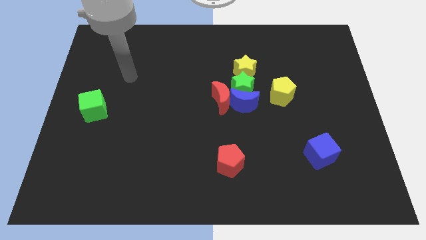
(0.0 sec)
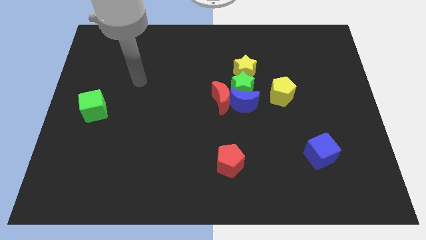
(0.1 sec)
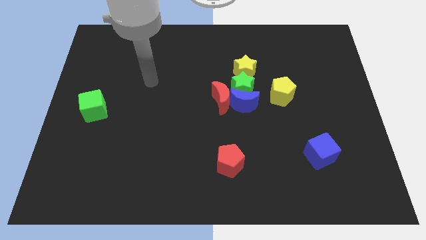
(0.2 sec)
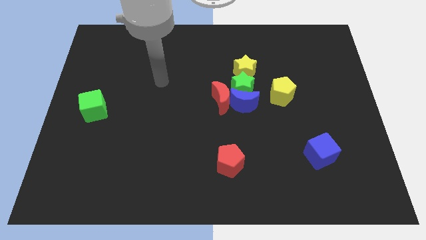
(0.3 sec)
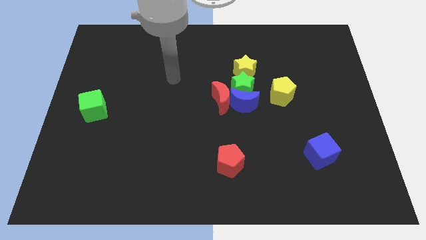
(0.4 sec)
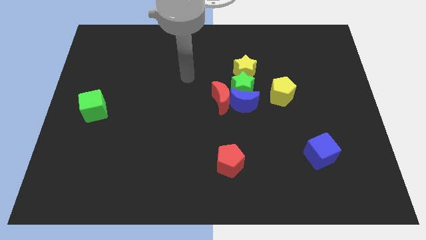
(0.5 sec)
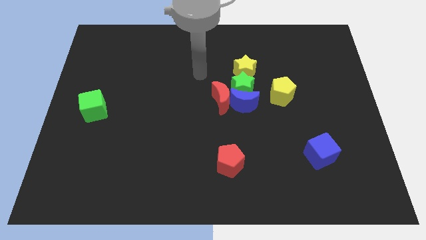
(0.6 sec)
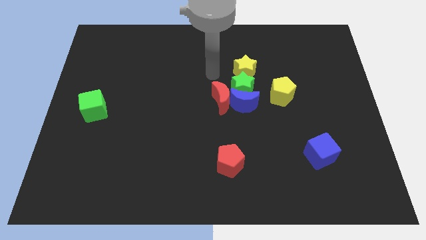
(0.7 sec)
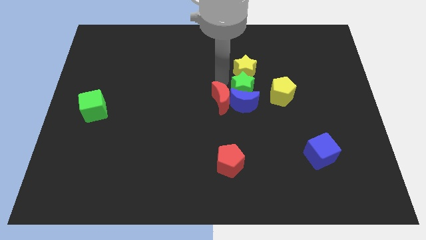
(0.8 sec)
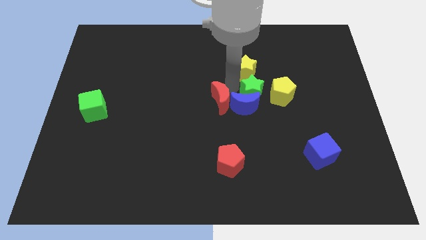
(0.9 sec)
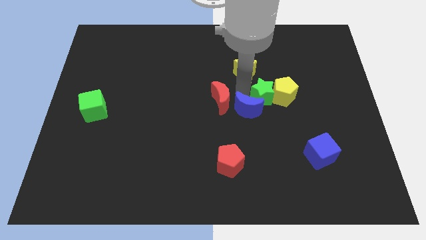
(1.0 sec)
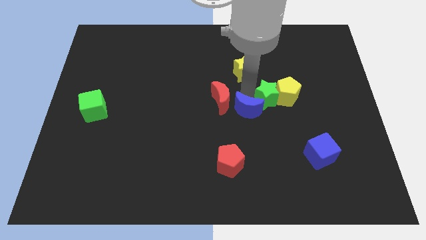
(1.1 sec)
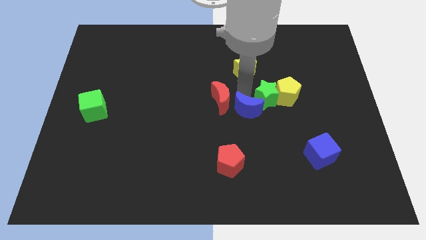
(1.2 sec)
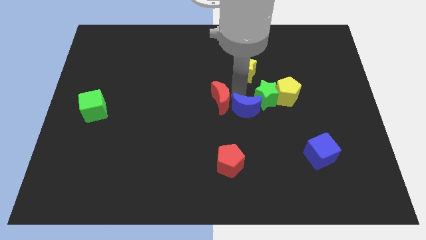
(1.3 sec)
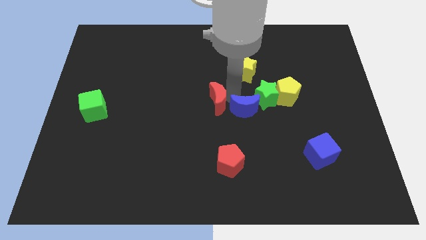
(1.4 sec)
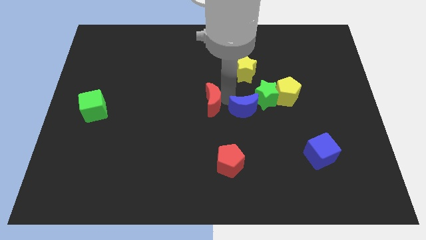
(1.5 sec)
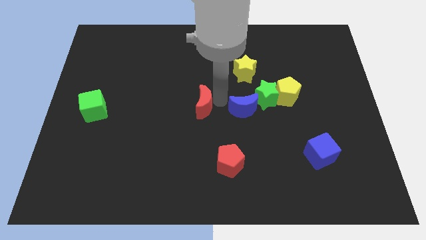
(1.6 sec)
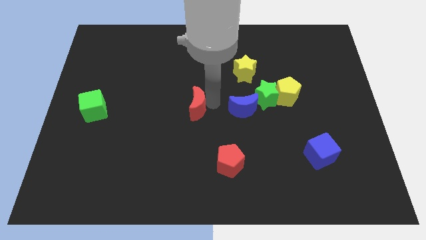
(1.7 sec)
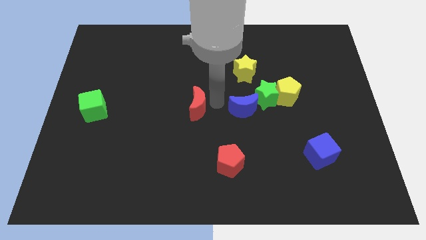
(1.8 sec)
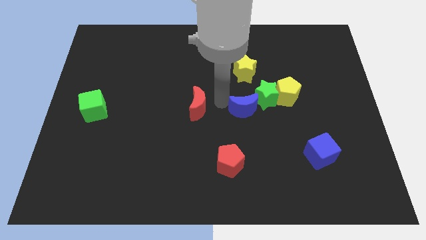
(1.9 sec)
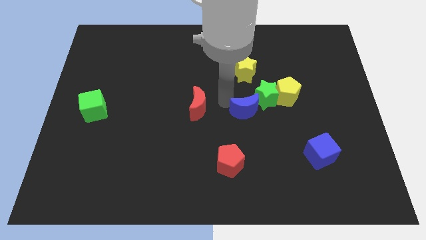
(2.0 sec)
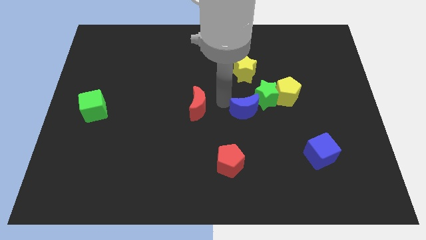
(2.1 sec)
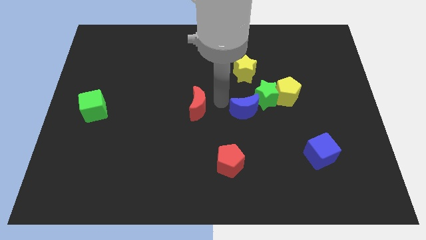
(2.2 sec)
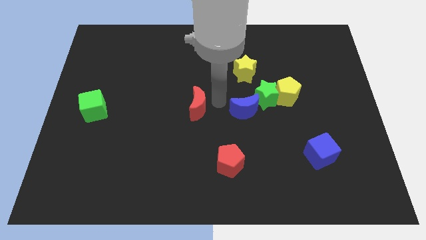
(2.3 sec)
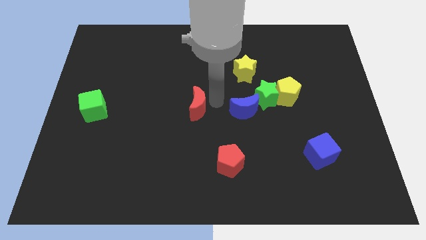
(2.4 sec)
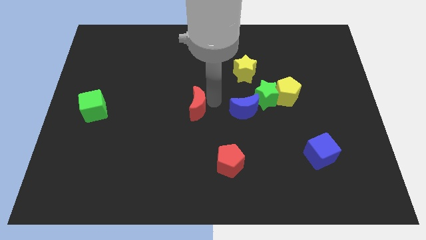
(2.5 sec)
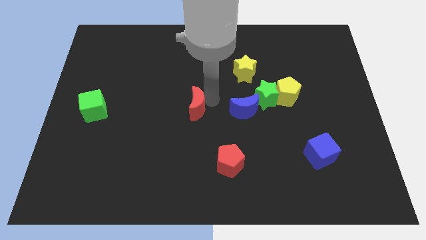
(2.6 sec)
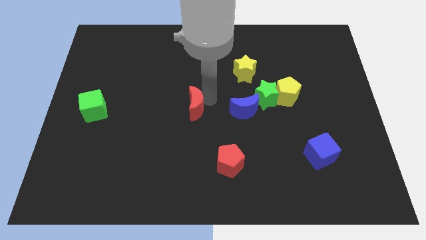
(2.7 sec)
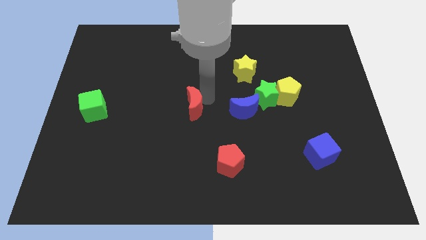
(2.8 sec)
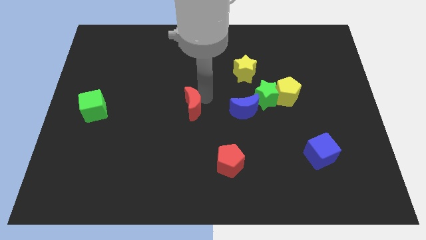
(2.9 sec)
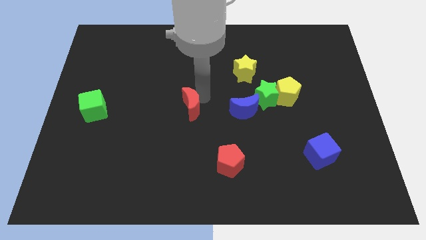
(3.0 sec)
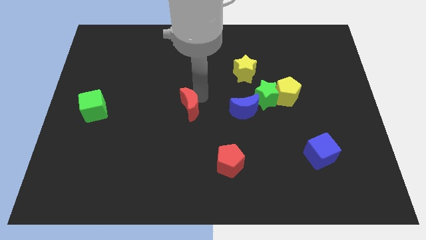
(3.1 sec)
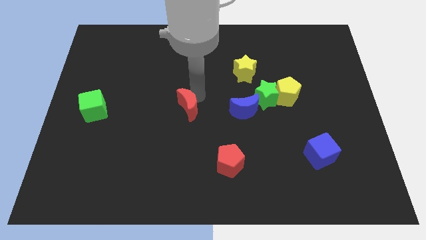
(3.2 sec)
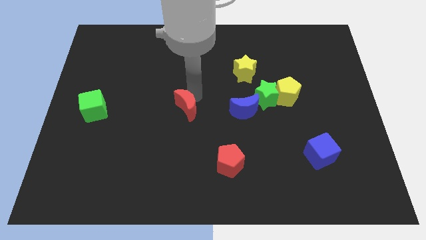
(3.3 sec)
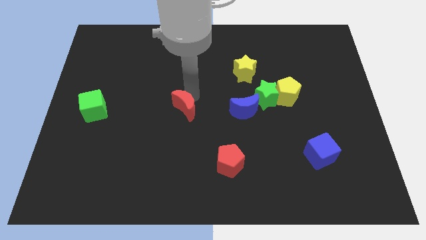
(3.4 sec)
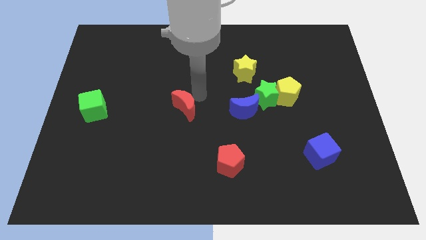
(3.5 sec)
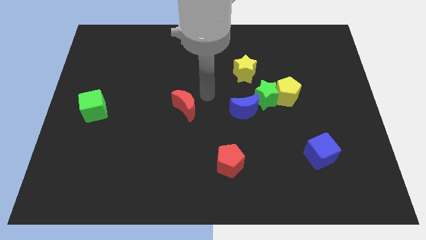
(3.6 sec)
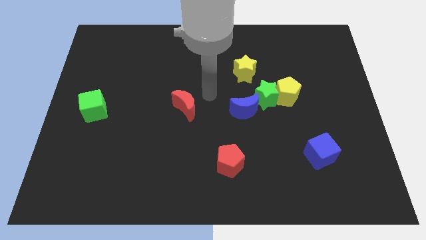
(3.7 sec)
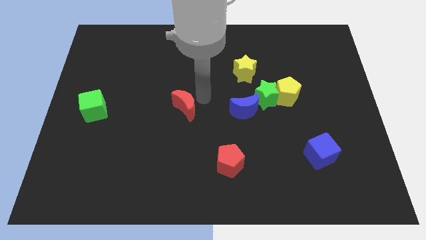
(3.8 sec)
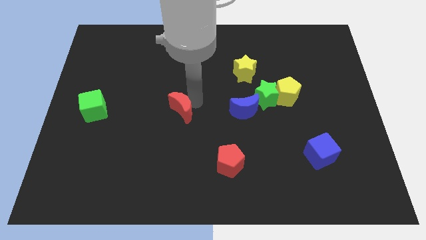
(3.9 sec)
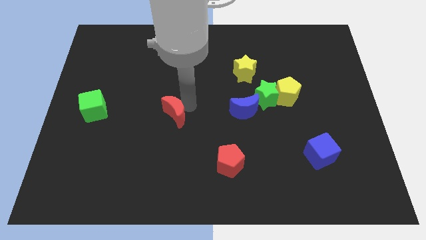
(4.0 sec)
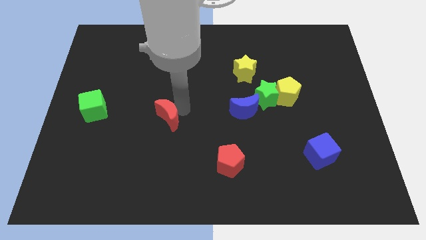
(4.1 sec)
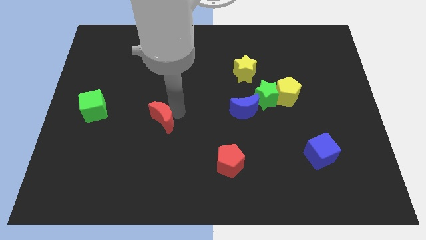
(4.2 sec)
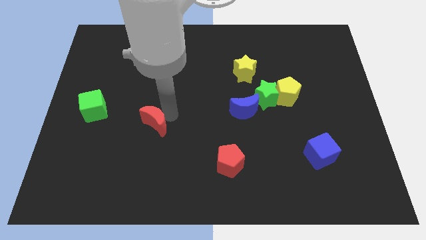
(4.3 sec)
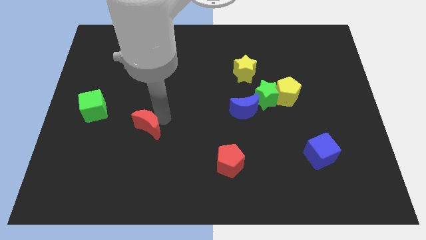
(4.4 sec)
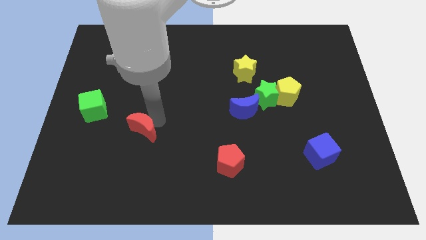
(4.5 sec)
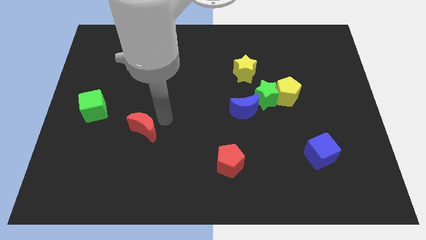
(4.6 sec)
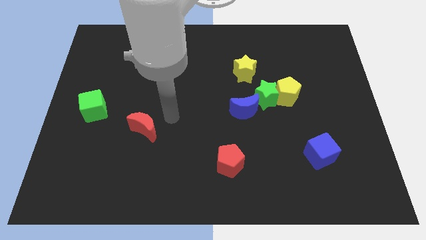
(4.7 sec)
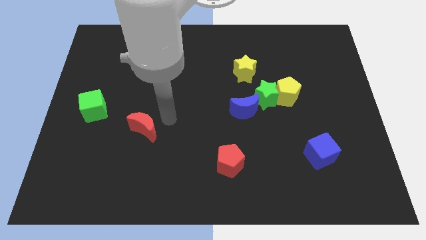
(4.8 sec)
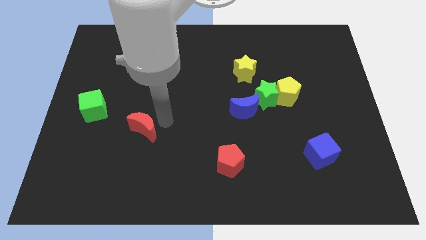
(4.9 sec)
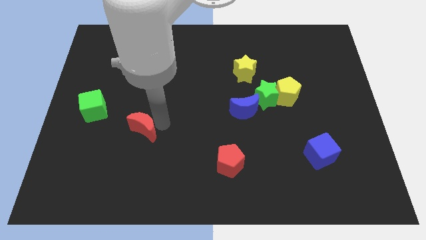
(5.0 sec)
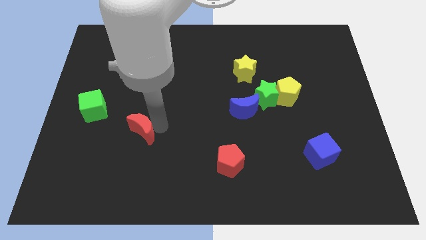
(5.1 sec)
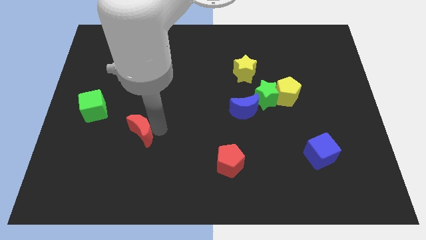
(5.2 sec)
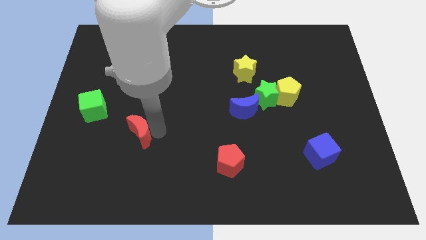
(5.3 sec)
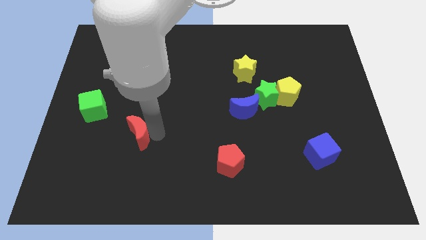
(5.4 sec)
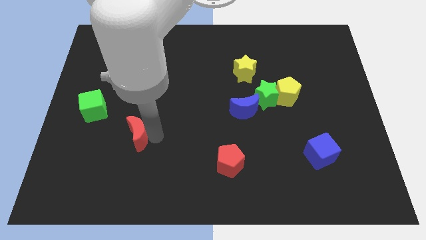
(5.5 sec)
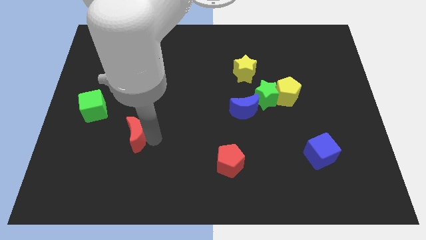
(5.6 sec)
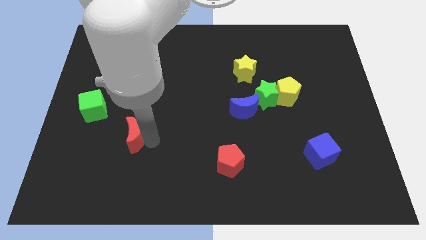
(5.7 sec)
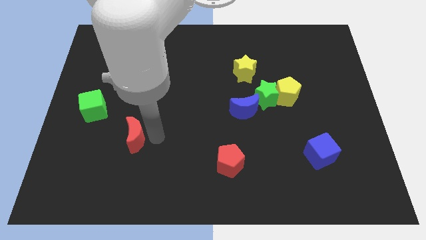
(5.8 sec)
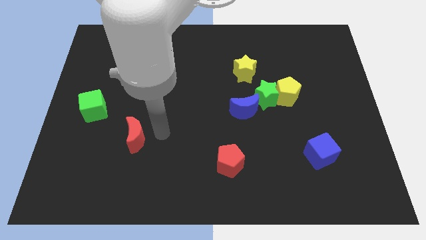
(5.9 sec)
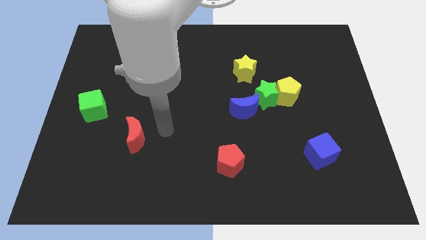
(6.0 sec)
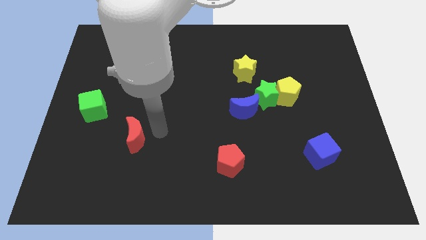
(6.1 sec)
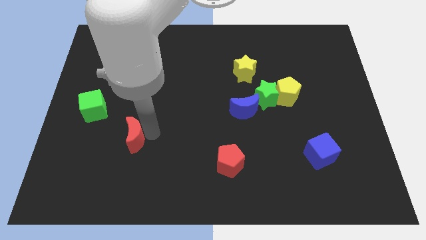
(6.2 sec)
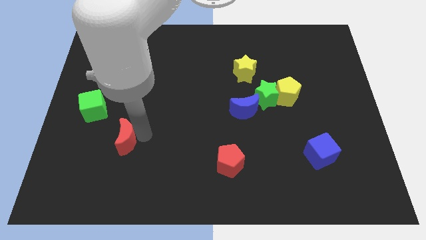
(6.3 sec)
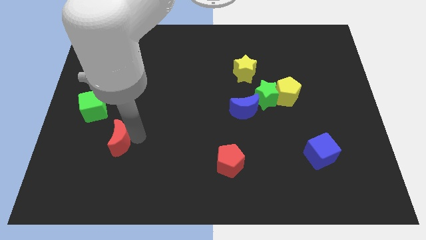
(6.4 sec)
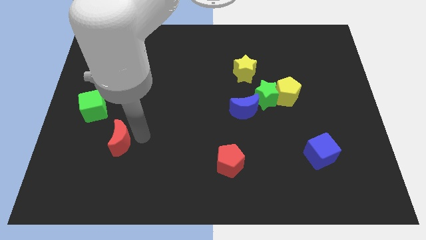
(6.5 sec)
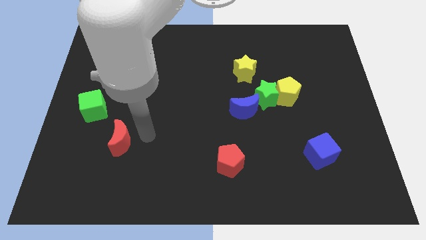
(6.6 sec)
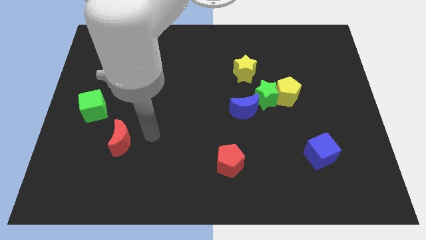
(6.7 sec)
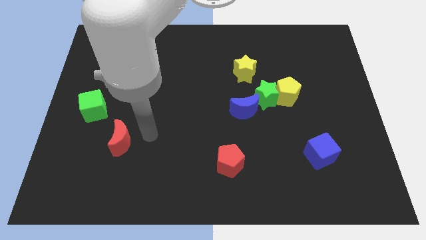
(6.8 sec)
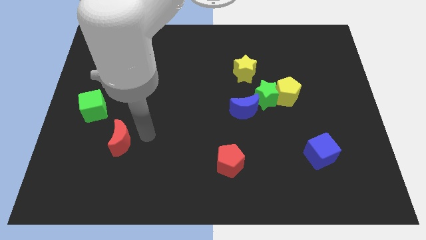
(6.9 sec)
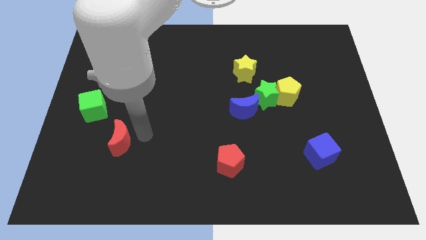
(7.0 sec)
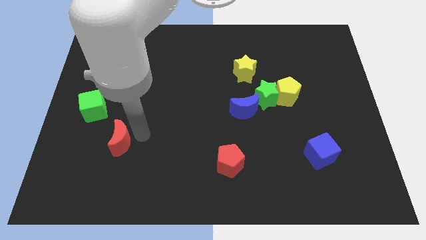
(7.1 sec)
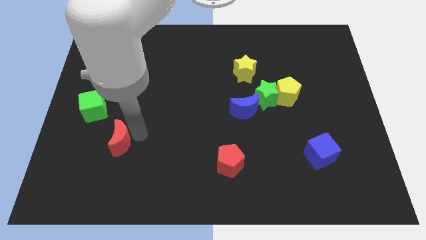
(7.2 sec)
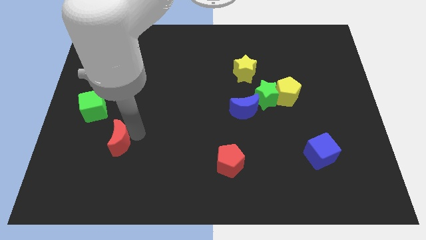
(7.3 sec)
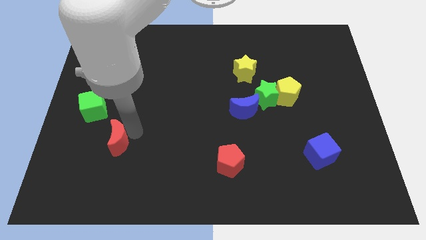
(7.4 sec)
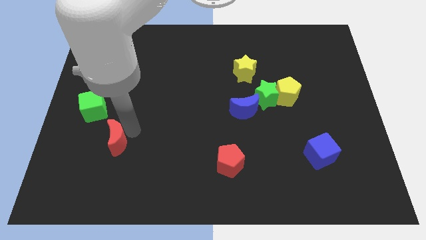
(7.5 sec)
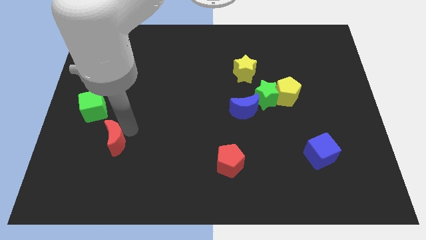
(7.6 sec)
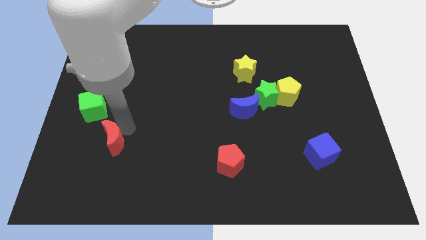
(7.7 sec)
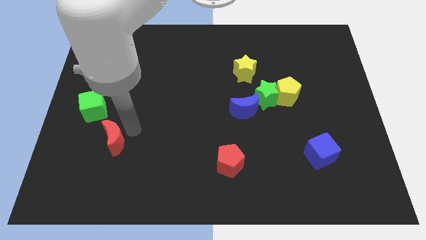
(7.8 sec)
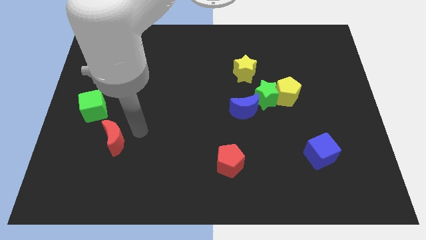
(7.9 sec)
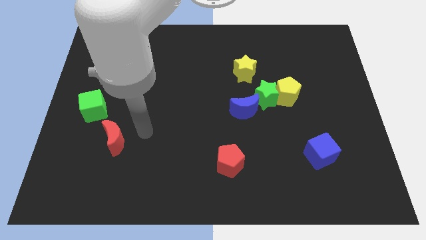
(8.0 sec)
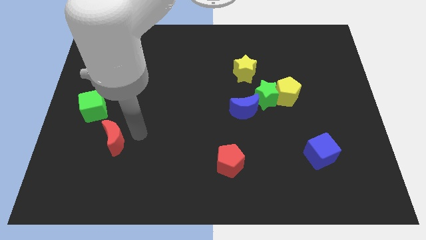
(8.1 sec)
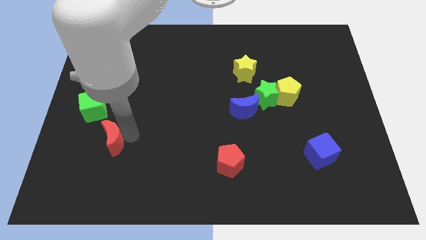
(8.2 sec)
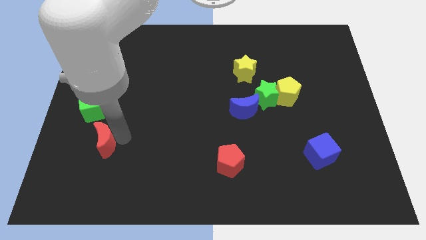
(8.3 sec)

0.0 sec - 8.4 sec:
move the red moon to the bottom side of the green cube
